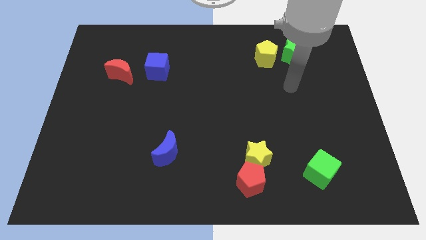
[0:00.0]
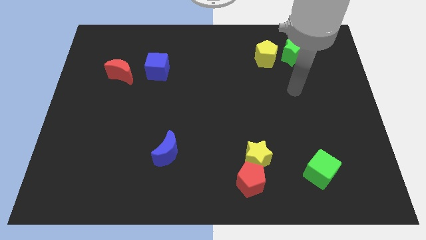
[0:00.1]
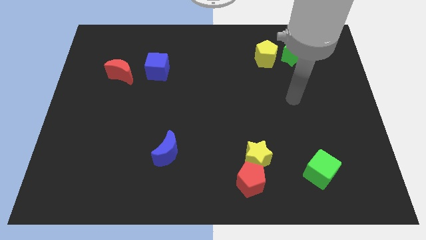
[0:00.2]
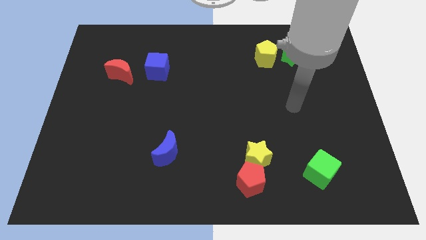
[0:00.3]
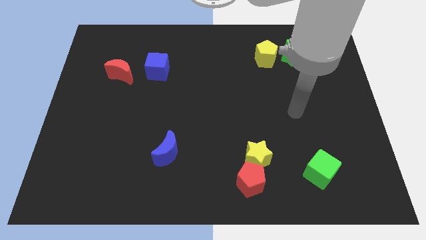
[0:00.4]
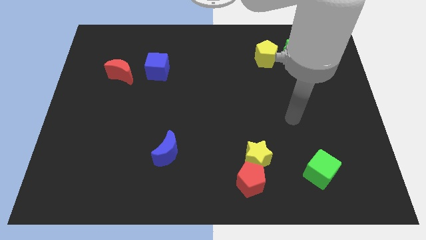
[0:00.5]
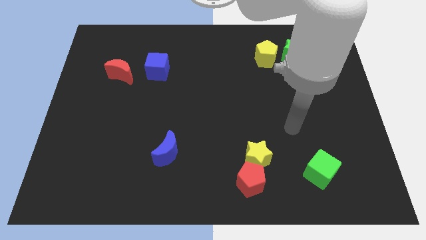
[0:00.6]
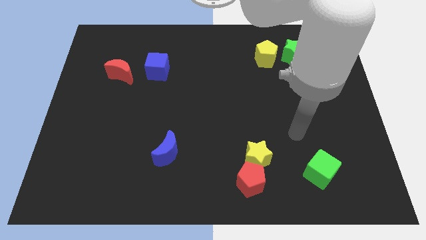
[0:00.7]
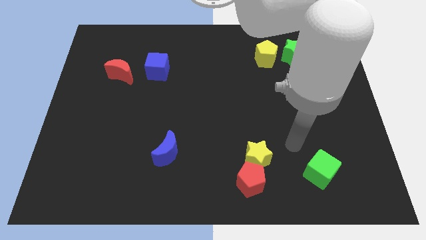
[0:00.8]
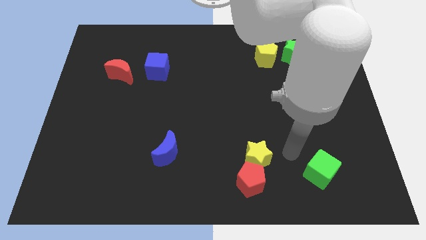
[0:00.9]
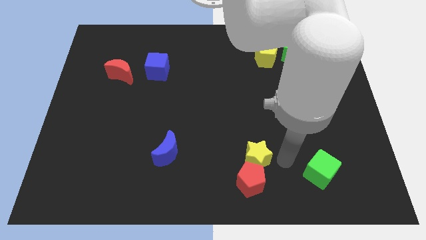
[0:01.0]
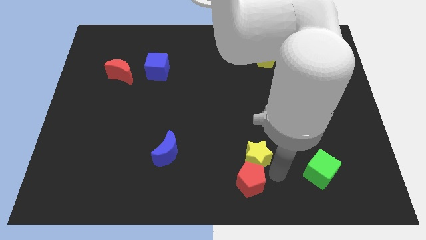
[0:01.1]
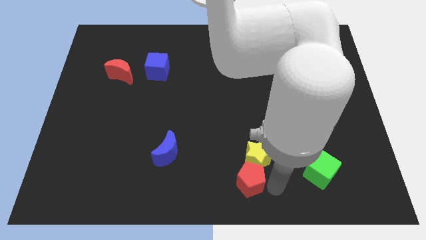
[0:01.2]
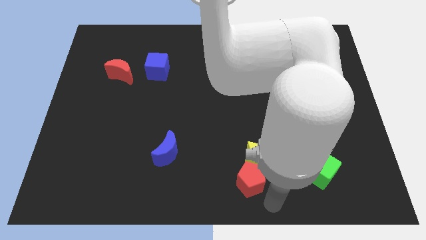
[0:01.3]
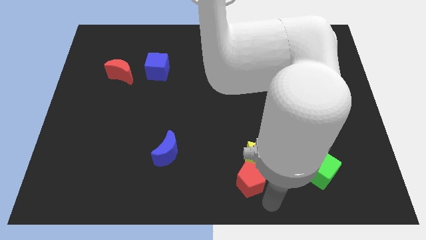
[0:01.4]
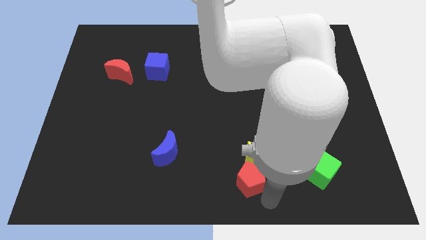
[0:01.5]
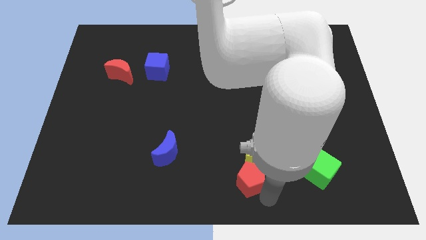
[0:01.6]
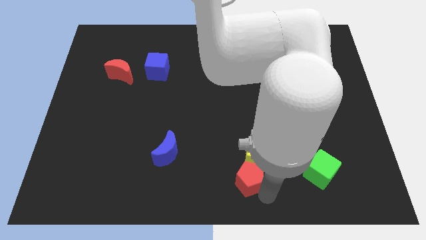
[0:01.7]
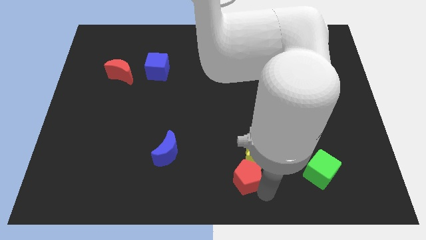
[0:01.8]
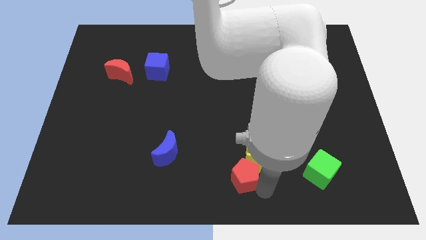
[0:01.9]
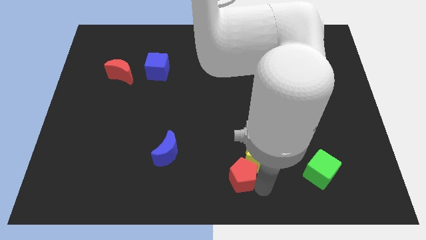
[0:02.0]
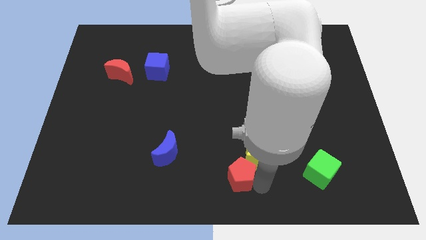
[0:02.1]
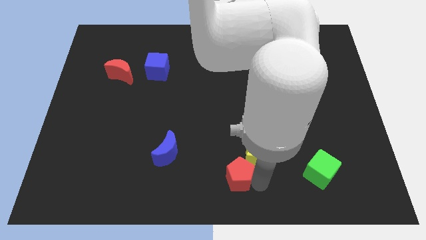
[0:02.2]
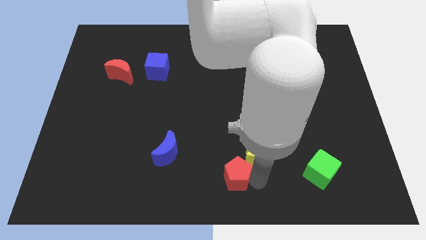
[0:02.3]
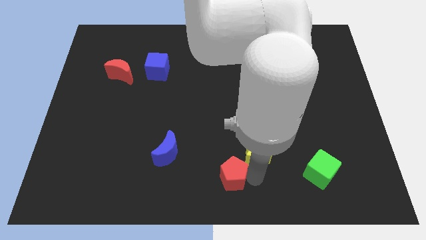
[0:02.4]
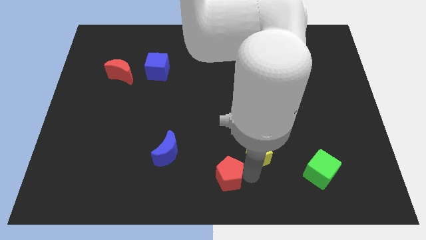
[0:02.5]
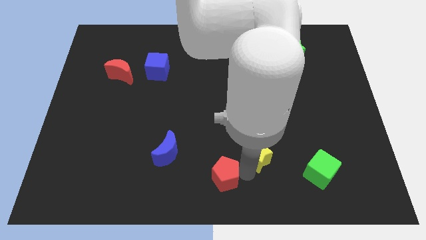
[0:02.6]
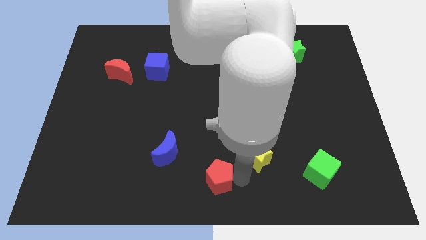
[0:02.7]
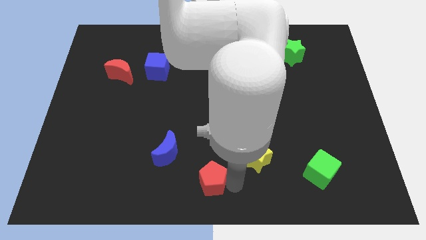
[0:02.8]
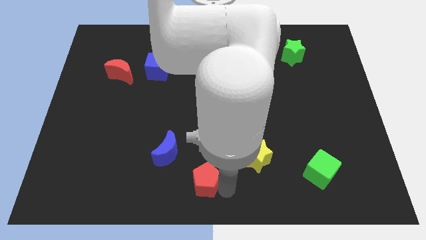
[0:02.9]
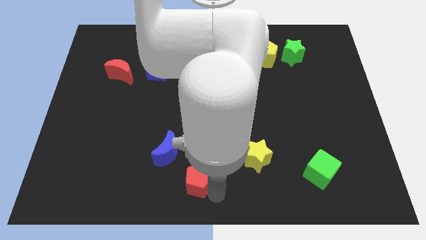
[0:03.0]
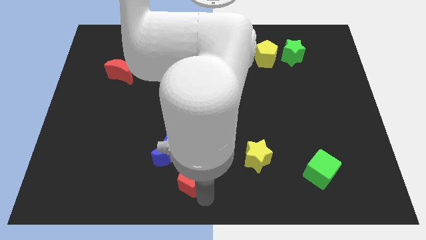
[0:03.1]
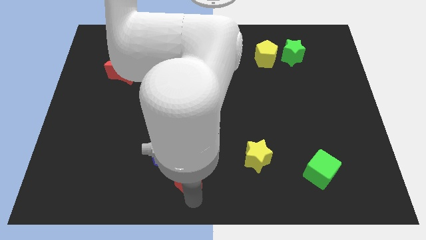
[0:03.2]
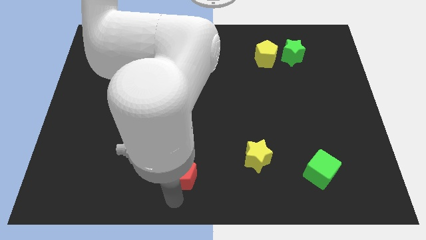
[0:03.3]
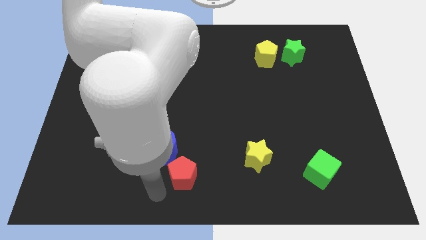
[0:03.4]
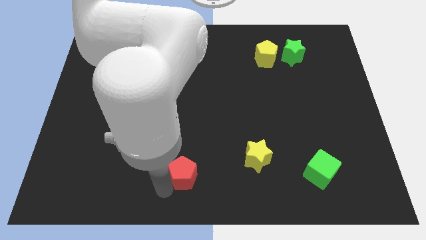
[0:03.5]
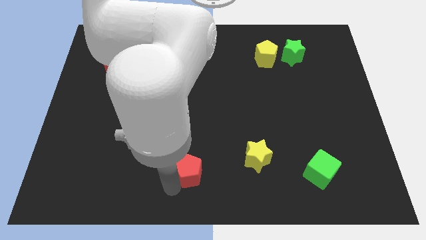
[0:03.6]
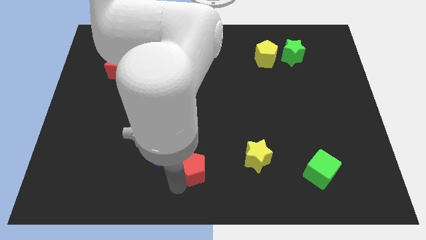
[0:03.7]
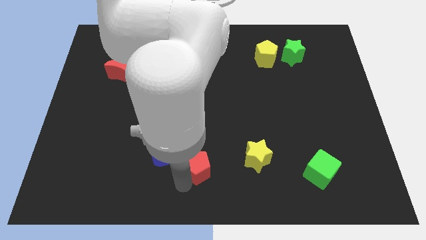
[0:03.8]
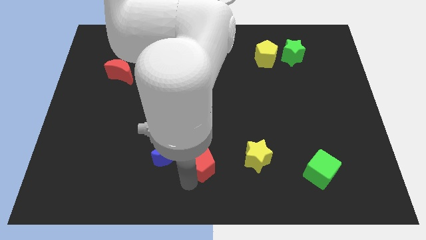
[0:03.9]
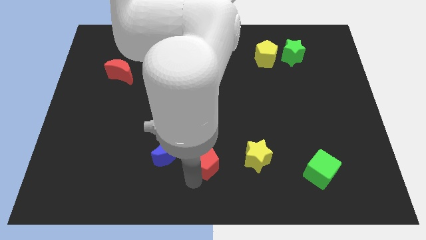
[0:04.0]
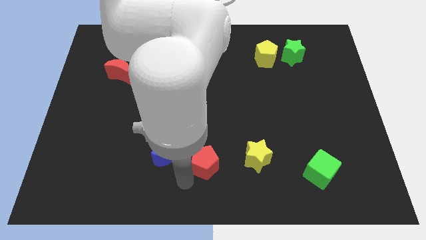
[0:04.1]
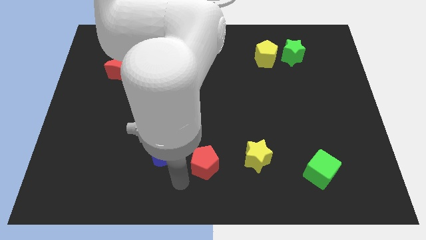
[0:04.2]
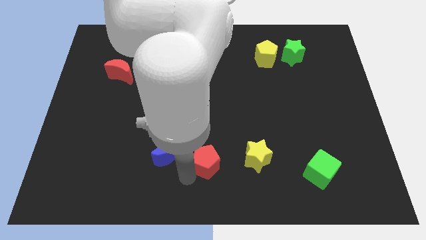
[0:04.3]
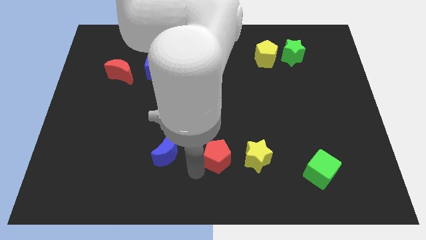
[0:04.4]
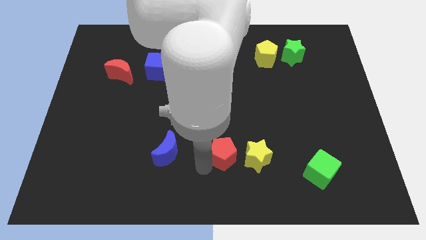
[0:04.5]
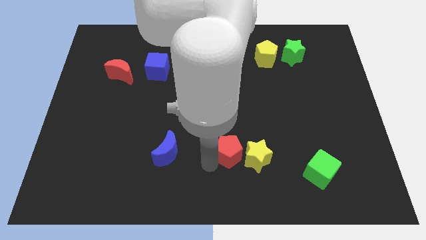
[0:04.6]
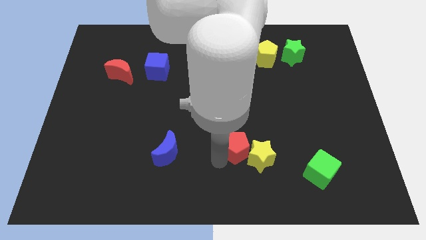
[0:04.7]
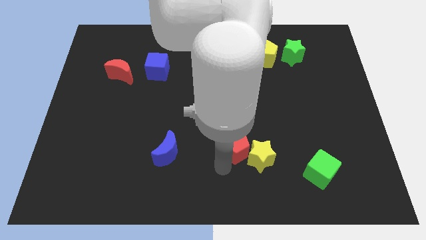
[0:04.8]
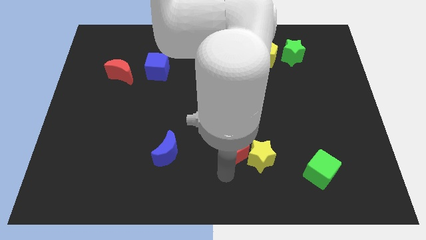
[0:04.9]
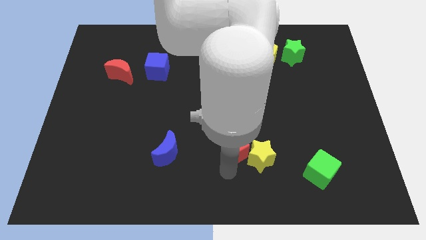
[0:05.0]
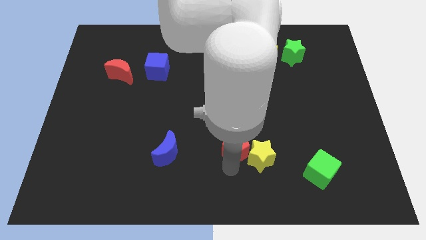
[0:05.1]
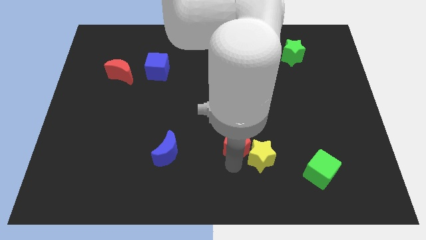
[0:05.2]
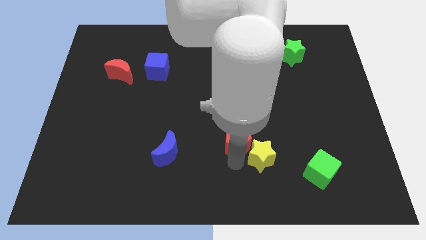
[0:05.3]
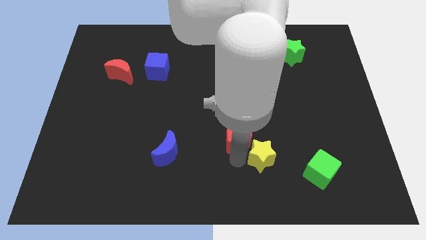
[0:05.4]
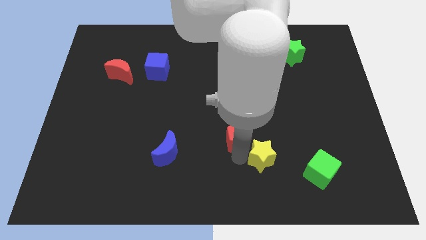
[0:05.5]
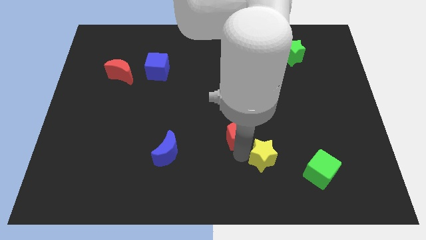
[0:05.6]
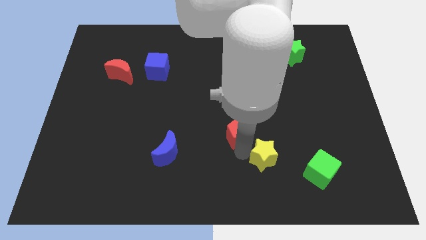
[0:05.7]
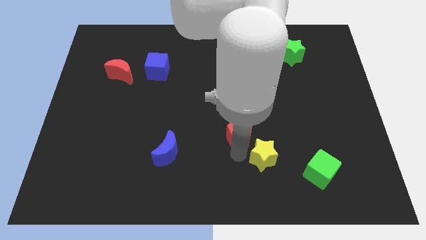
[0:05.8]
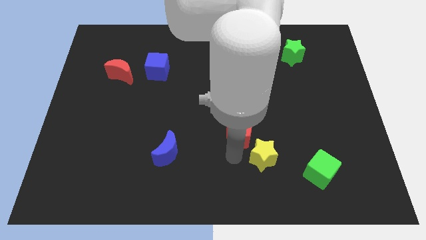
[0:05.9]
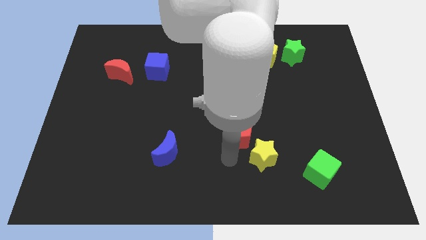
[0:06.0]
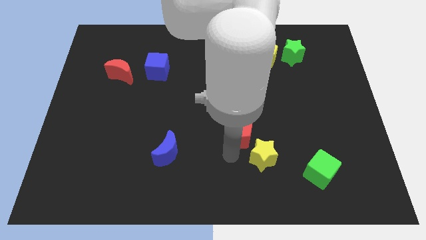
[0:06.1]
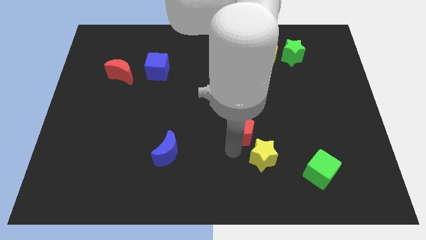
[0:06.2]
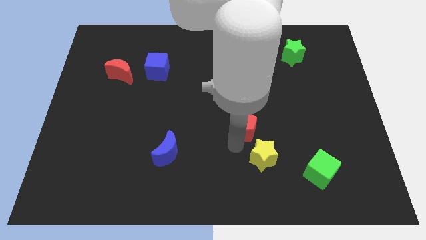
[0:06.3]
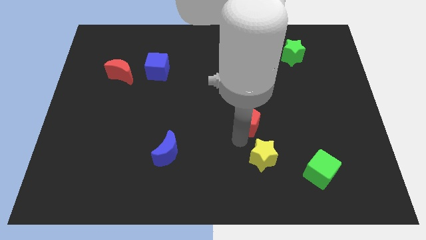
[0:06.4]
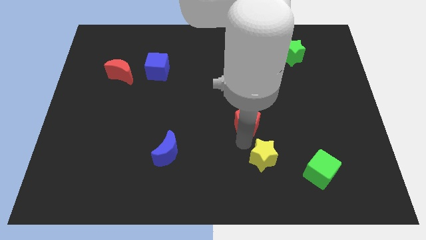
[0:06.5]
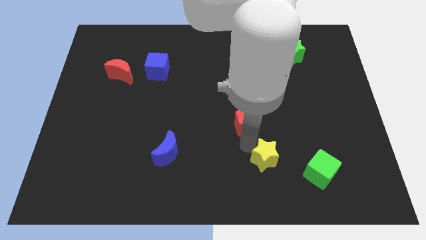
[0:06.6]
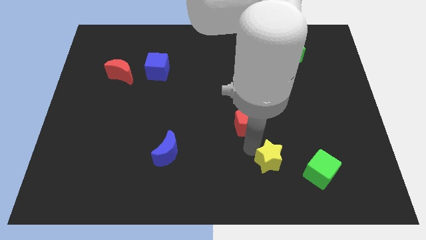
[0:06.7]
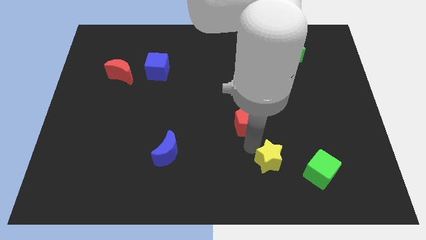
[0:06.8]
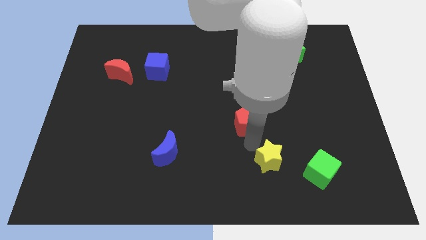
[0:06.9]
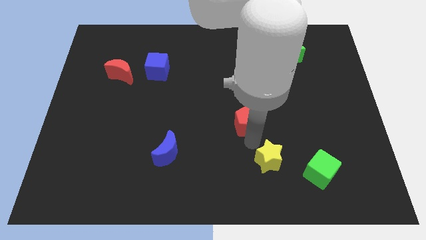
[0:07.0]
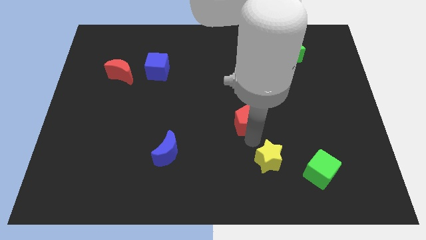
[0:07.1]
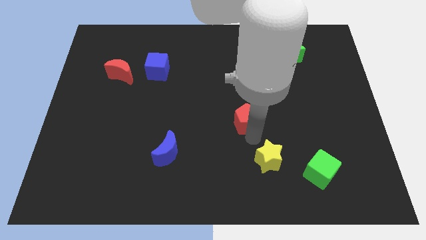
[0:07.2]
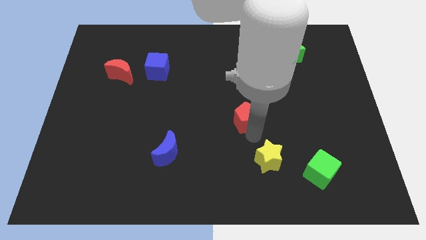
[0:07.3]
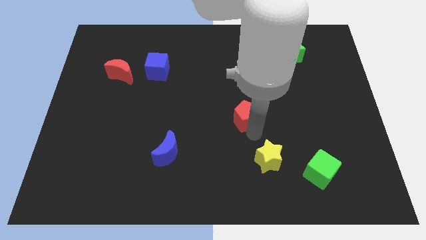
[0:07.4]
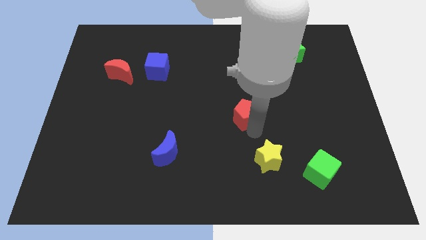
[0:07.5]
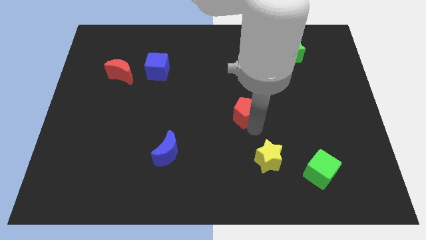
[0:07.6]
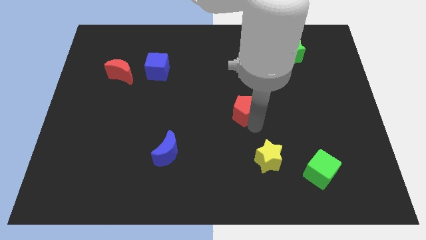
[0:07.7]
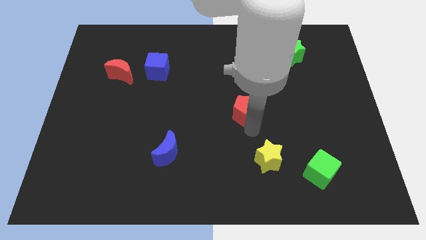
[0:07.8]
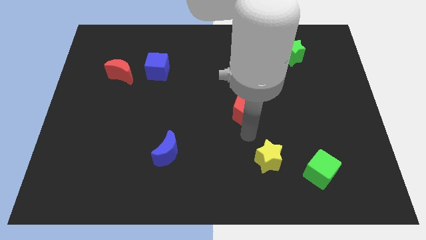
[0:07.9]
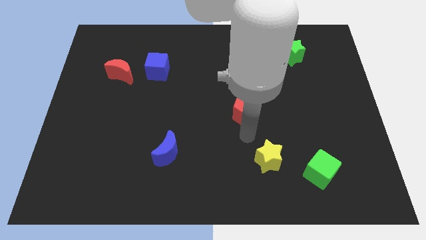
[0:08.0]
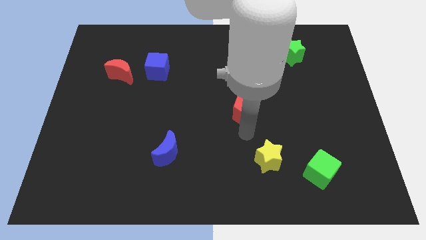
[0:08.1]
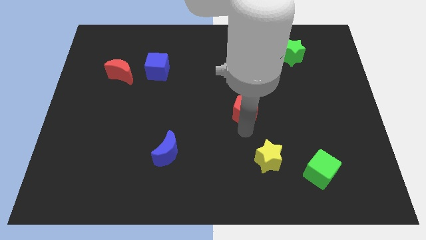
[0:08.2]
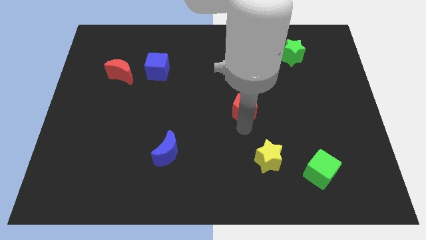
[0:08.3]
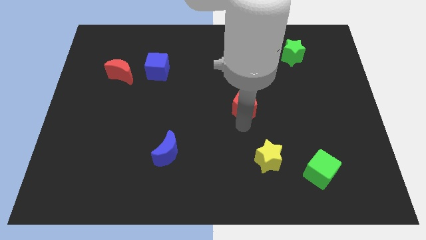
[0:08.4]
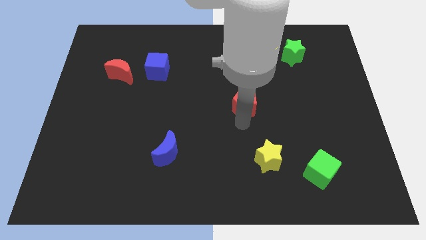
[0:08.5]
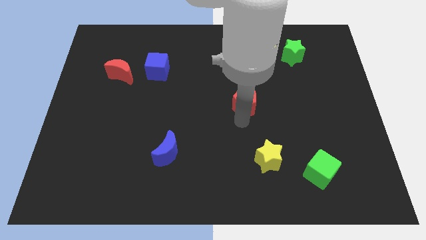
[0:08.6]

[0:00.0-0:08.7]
move the red pentagon up
